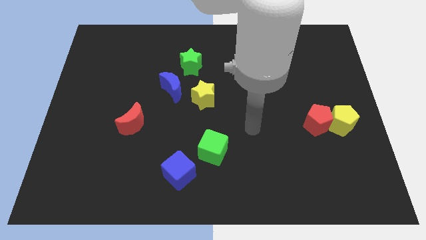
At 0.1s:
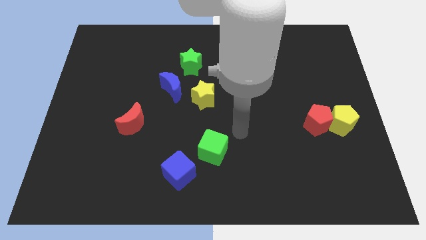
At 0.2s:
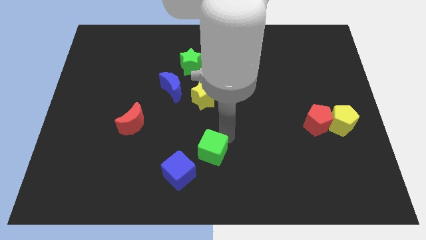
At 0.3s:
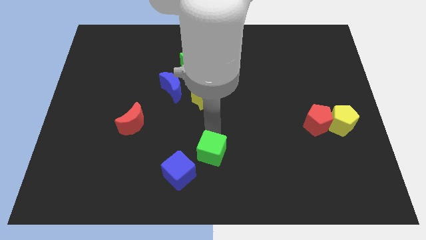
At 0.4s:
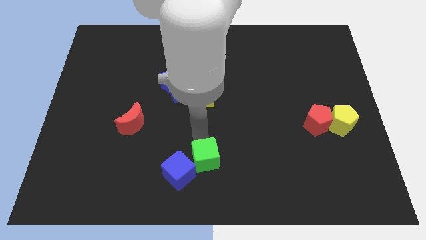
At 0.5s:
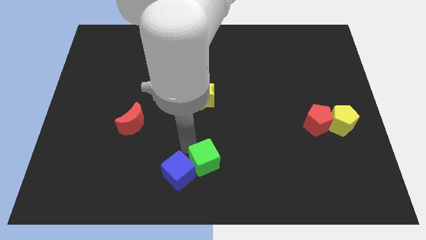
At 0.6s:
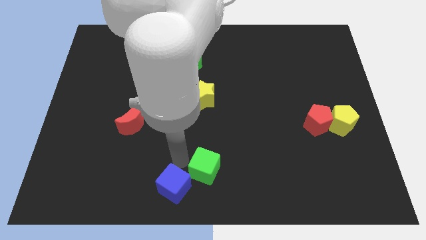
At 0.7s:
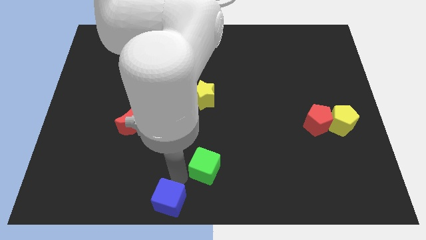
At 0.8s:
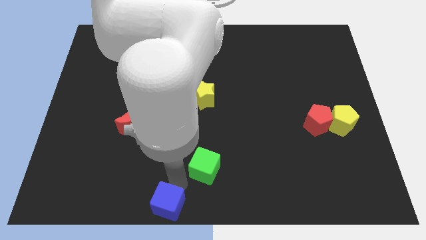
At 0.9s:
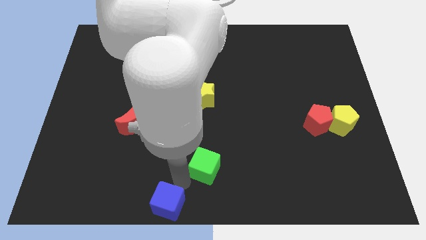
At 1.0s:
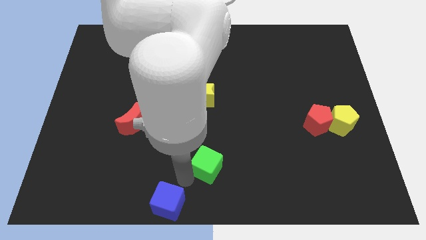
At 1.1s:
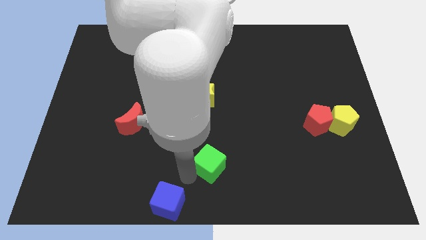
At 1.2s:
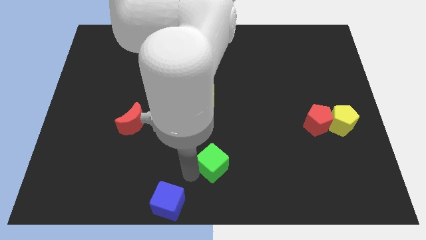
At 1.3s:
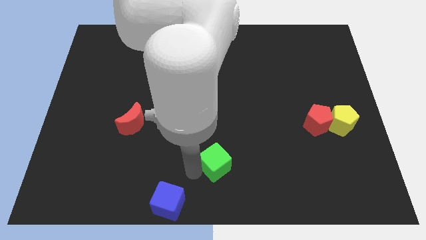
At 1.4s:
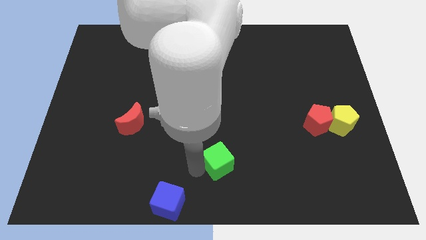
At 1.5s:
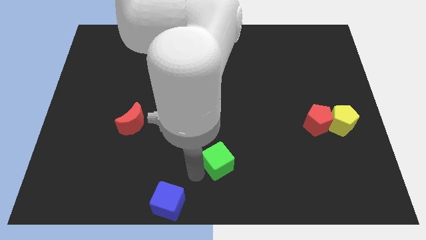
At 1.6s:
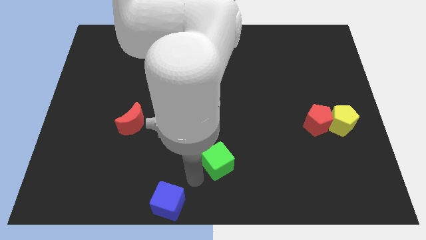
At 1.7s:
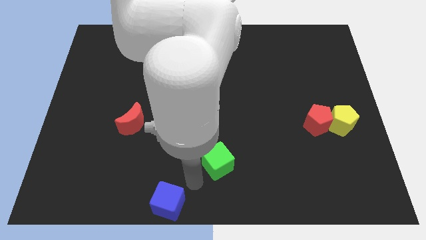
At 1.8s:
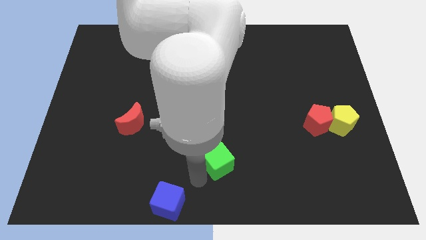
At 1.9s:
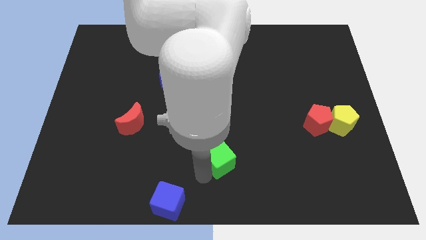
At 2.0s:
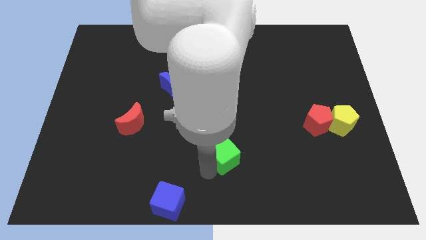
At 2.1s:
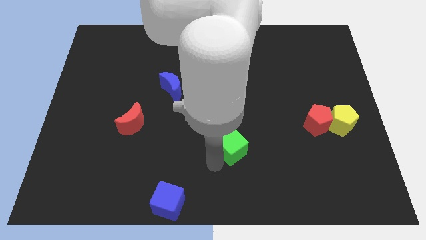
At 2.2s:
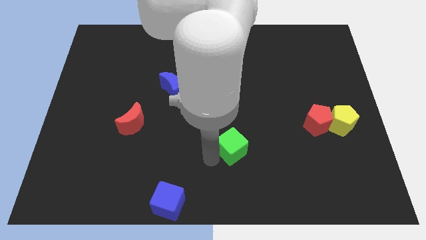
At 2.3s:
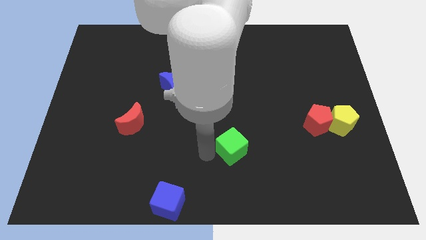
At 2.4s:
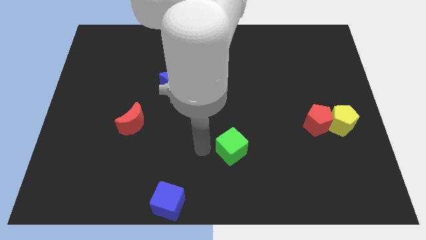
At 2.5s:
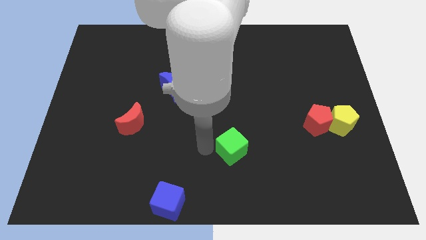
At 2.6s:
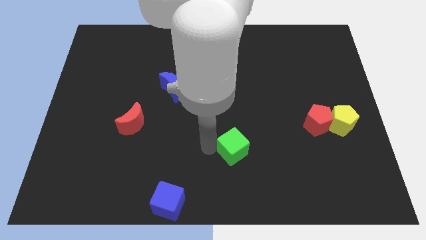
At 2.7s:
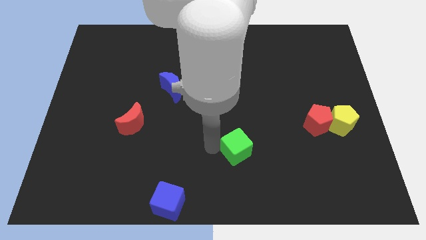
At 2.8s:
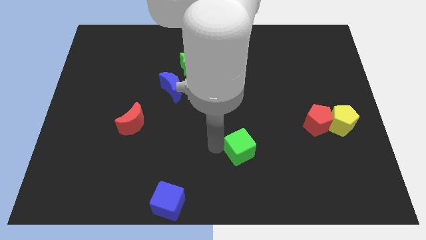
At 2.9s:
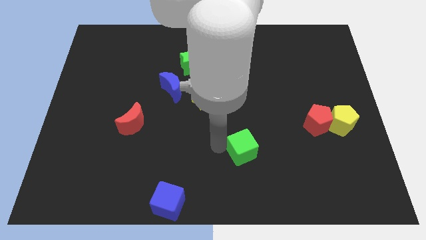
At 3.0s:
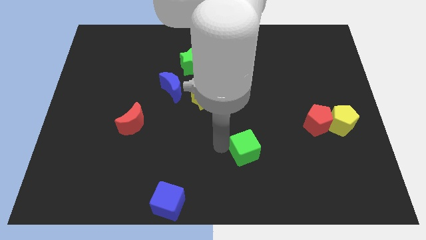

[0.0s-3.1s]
slightly move the green cube right

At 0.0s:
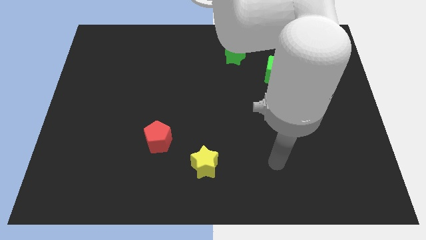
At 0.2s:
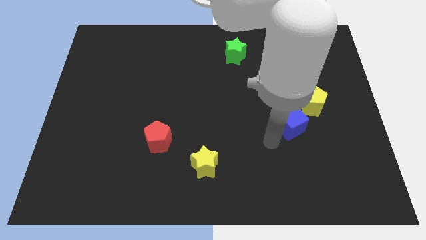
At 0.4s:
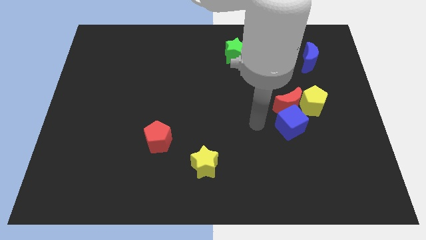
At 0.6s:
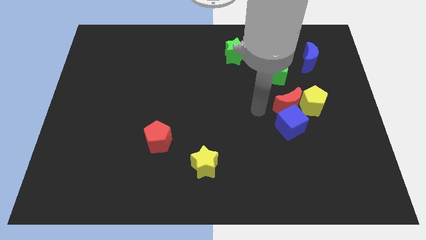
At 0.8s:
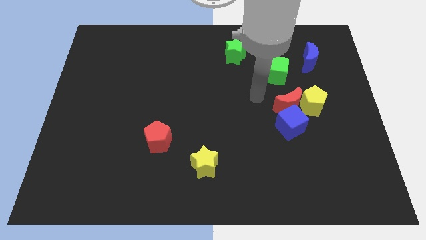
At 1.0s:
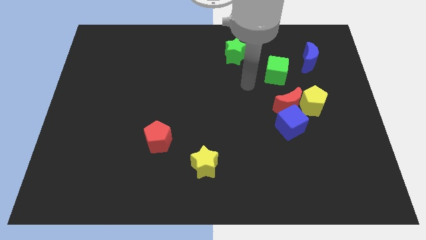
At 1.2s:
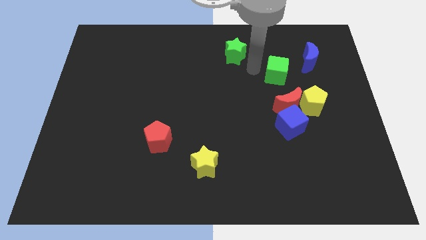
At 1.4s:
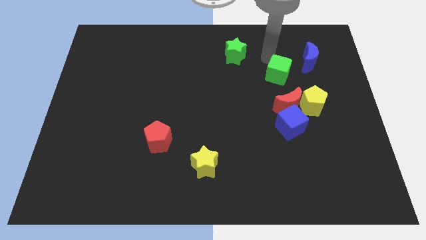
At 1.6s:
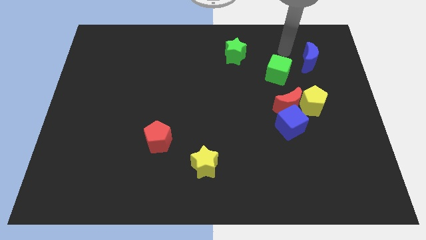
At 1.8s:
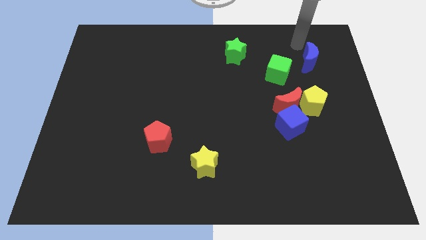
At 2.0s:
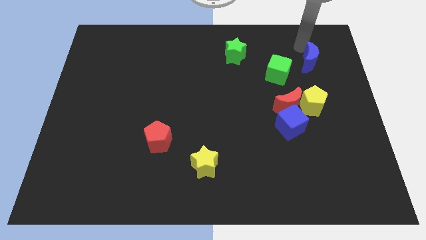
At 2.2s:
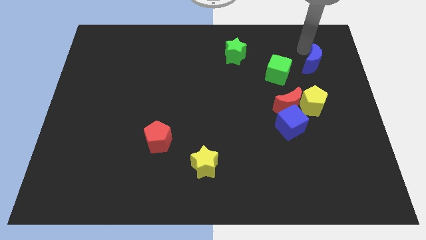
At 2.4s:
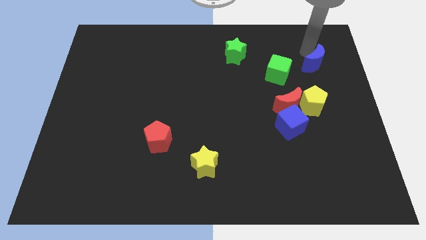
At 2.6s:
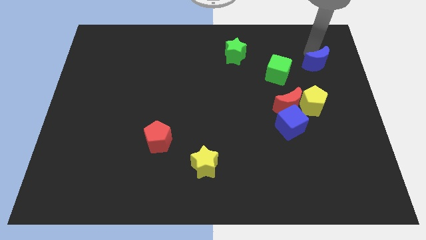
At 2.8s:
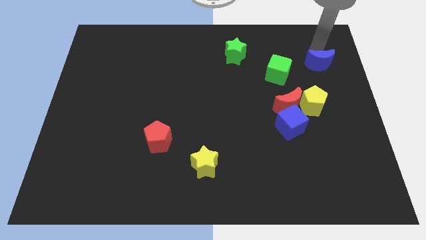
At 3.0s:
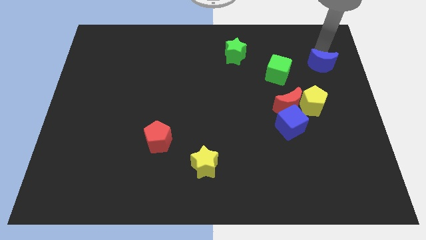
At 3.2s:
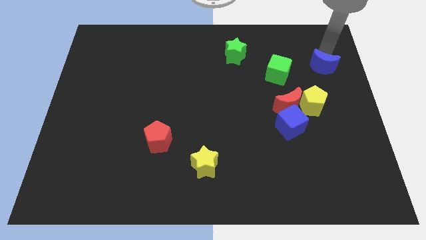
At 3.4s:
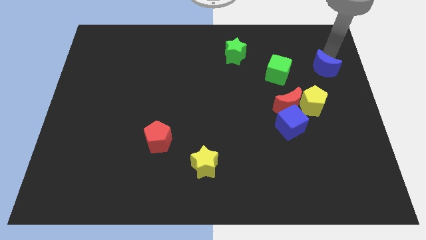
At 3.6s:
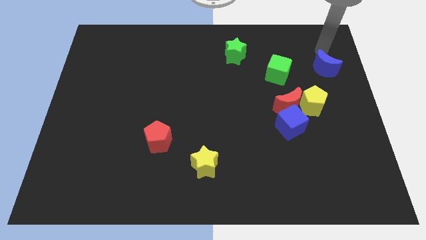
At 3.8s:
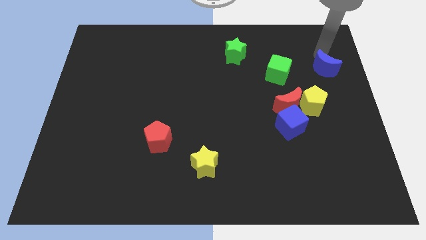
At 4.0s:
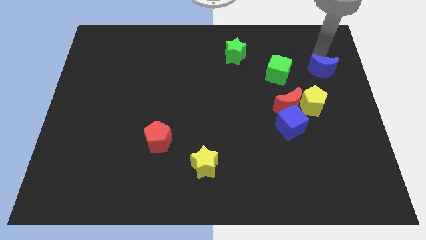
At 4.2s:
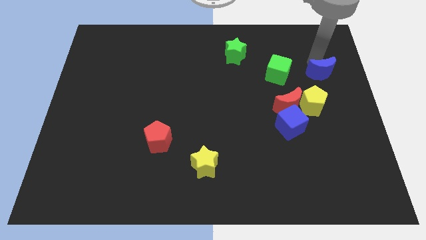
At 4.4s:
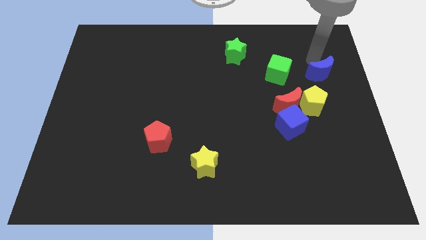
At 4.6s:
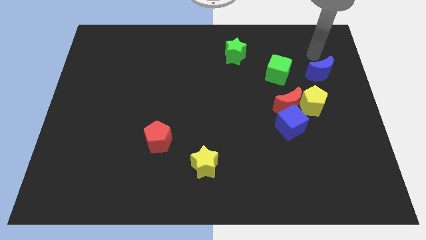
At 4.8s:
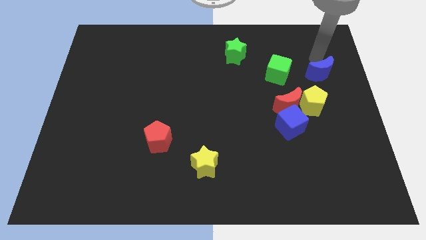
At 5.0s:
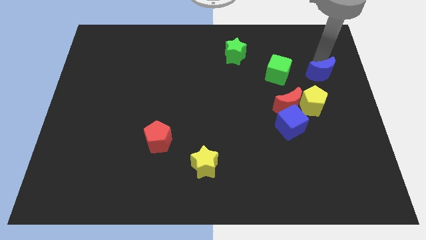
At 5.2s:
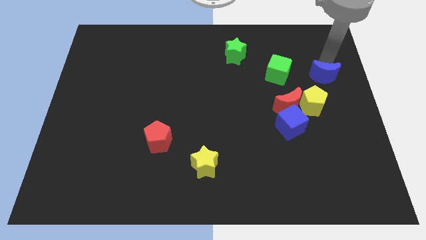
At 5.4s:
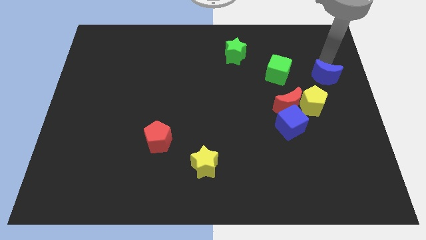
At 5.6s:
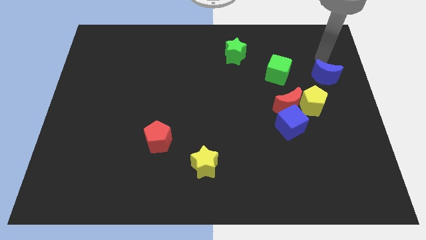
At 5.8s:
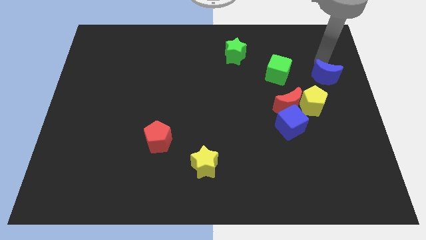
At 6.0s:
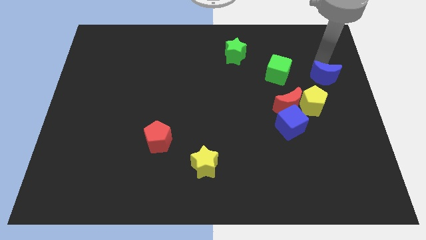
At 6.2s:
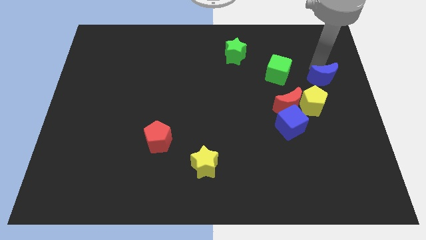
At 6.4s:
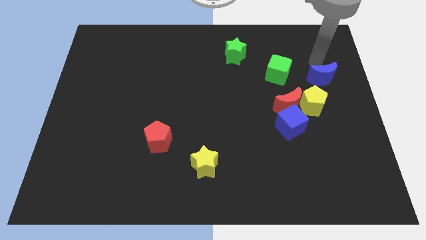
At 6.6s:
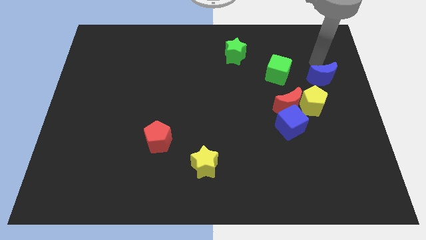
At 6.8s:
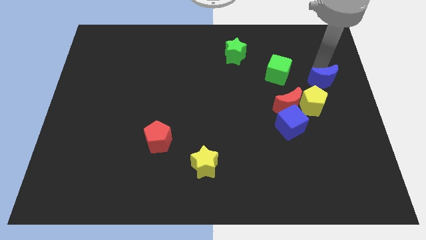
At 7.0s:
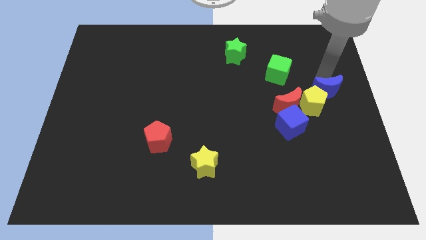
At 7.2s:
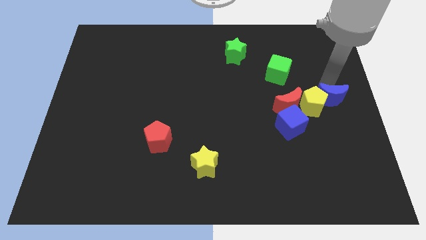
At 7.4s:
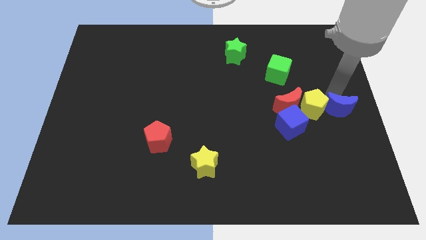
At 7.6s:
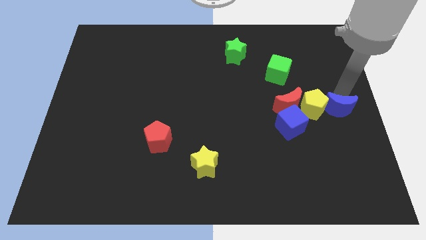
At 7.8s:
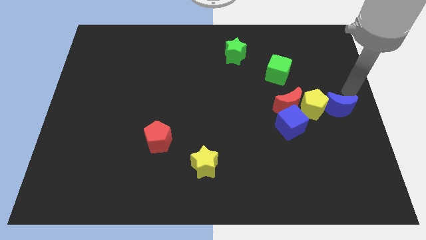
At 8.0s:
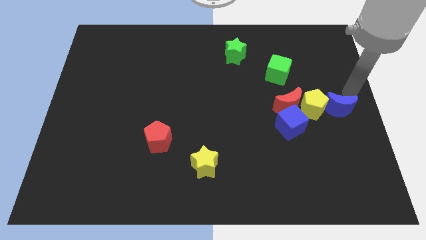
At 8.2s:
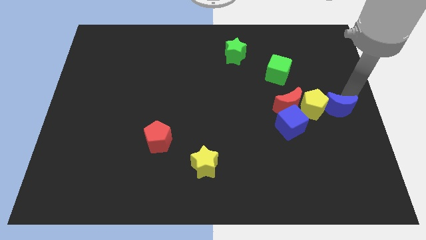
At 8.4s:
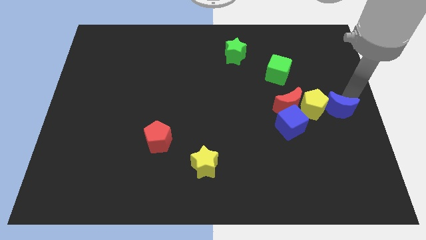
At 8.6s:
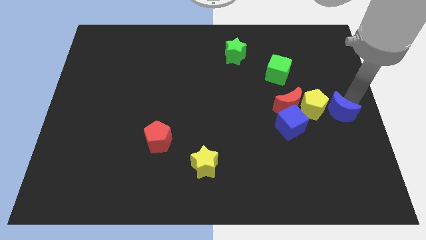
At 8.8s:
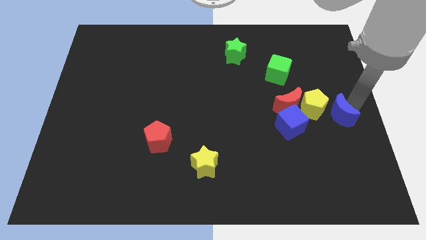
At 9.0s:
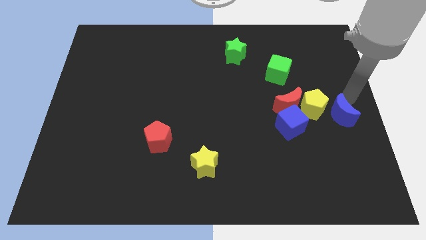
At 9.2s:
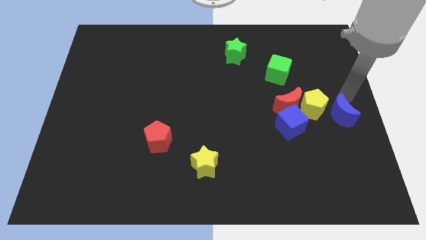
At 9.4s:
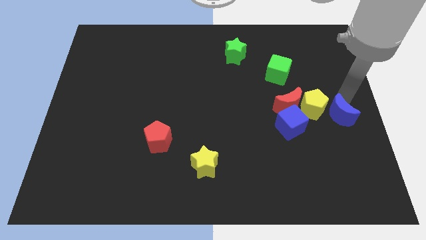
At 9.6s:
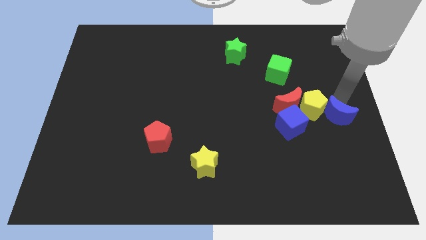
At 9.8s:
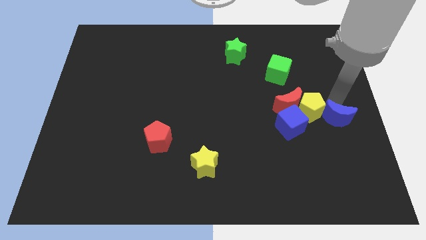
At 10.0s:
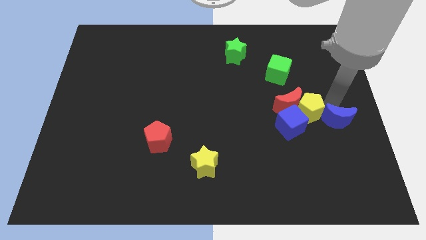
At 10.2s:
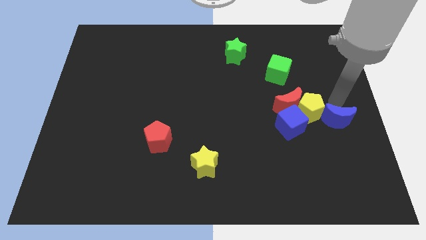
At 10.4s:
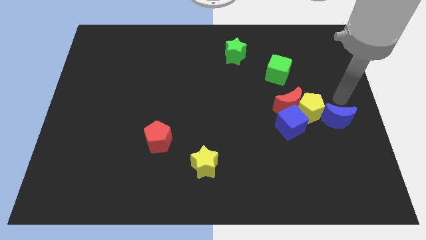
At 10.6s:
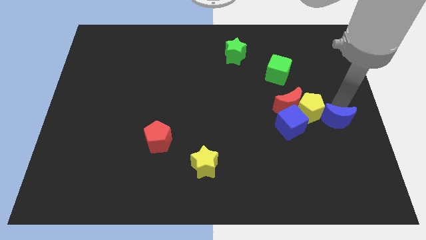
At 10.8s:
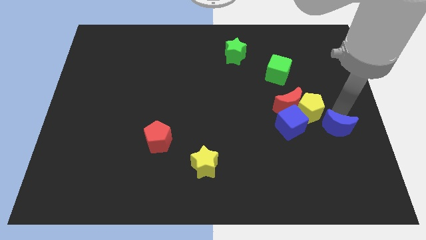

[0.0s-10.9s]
slide the blue moon down
